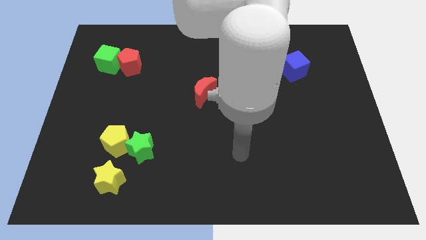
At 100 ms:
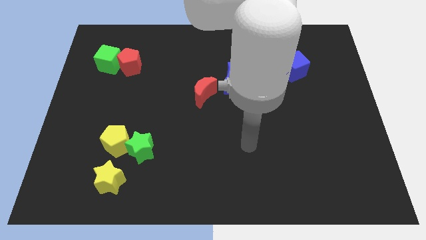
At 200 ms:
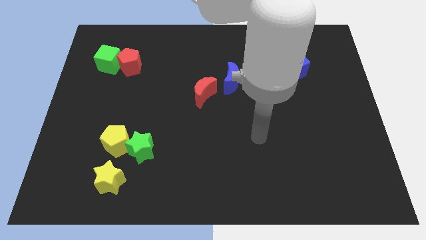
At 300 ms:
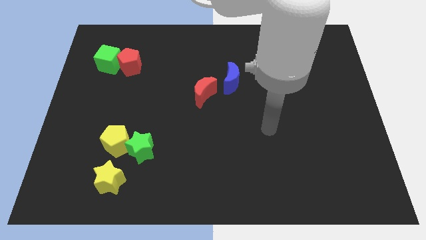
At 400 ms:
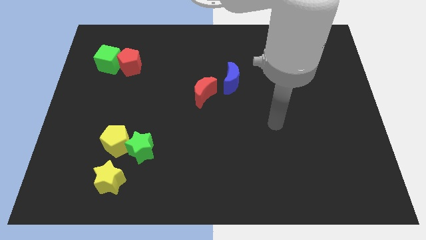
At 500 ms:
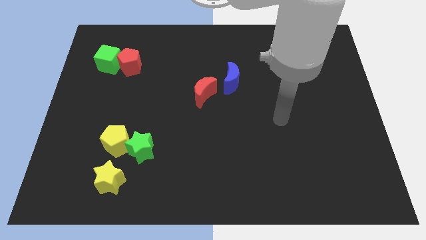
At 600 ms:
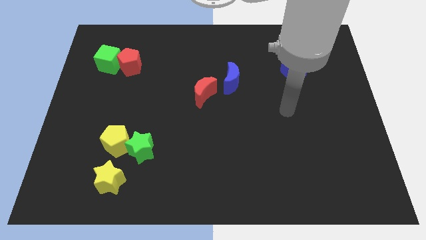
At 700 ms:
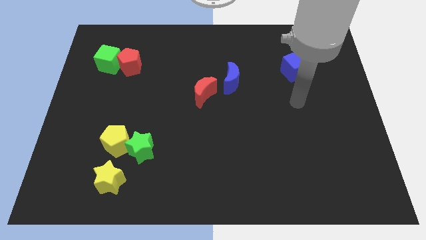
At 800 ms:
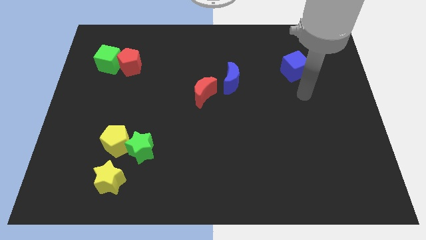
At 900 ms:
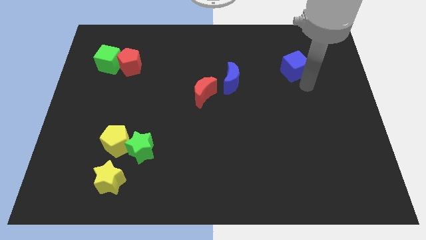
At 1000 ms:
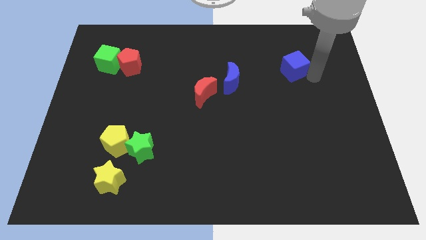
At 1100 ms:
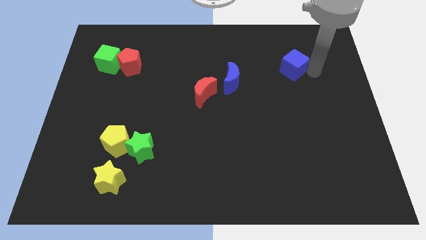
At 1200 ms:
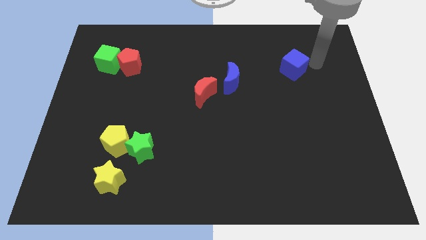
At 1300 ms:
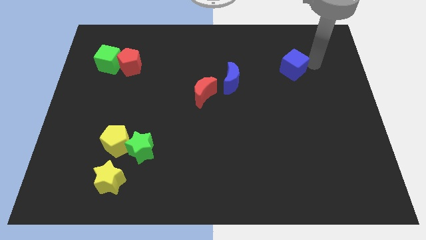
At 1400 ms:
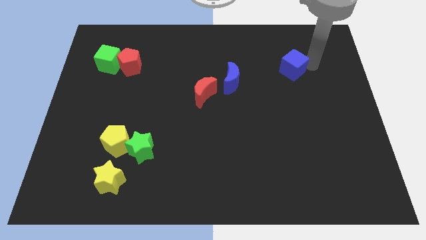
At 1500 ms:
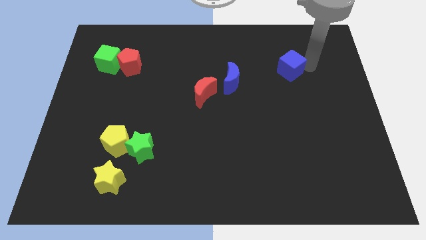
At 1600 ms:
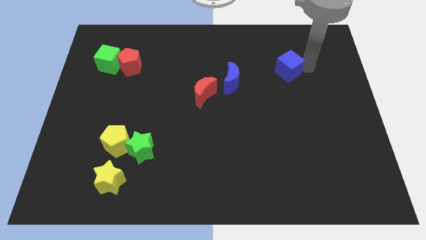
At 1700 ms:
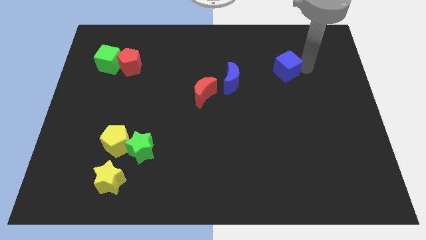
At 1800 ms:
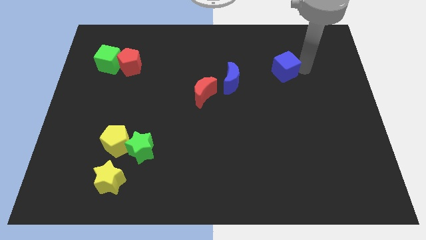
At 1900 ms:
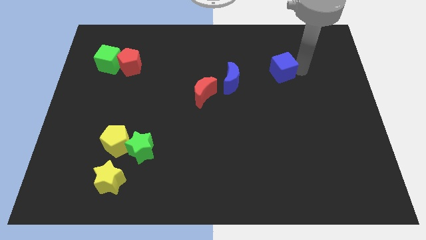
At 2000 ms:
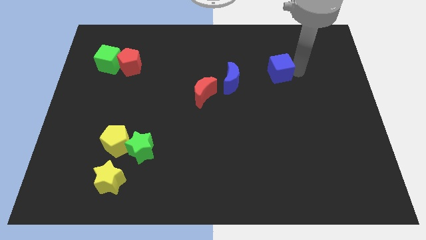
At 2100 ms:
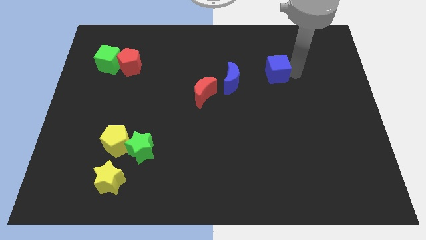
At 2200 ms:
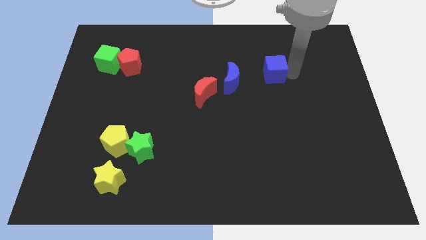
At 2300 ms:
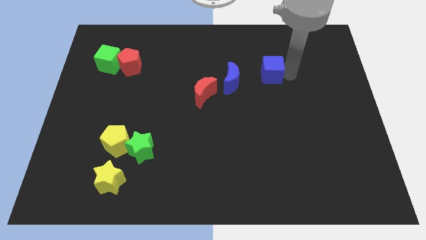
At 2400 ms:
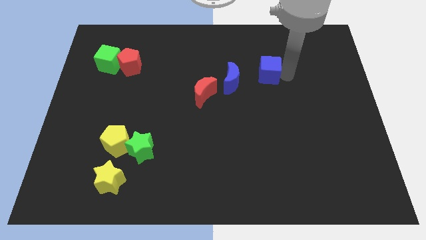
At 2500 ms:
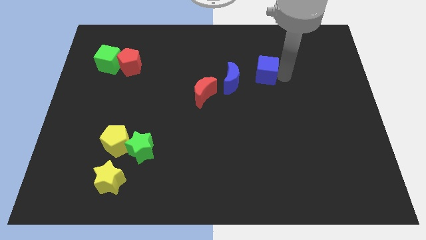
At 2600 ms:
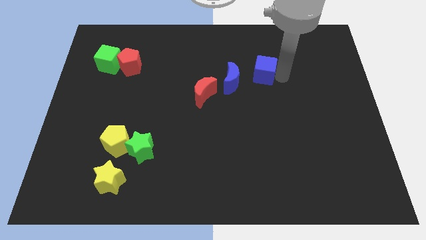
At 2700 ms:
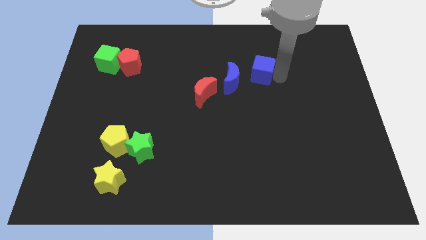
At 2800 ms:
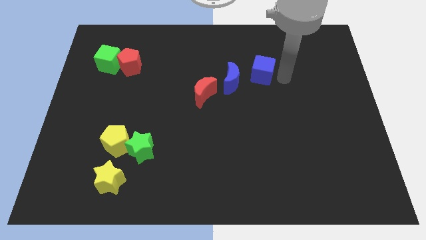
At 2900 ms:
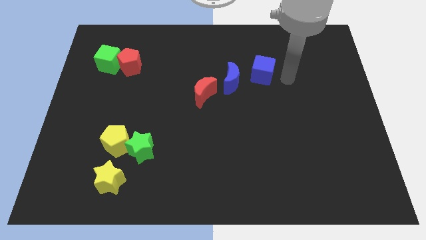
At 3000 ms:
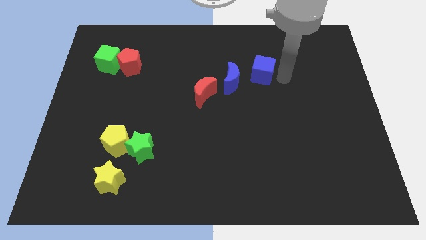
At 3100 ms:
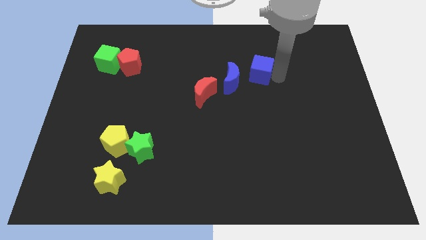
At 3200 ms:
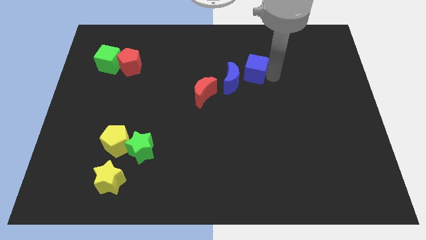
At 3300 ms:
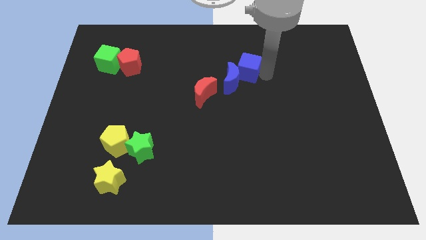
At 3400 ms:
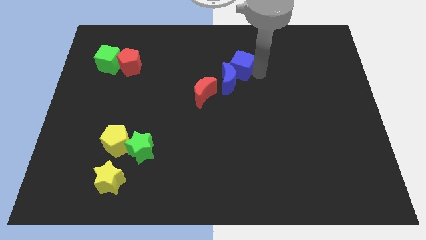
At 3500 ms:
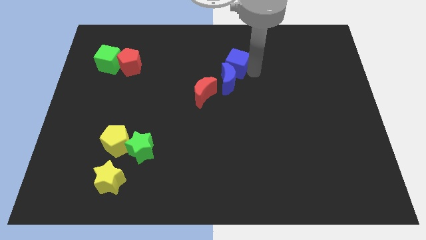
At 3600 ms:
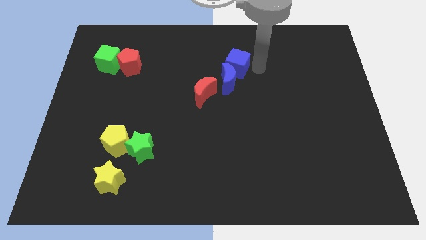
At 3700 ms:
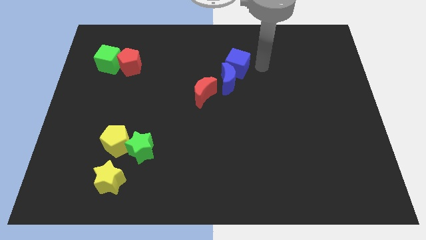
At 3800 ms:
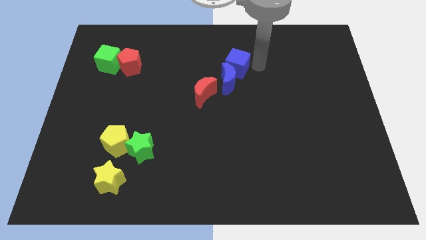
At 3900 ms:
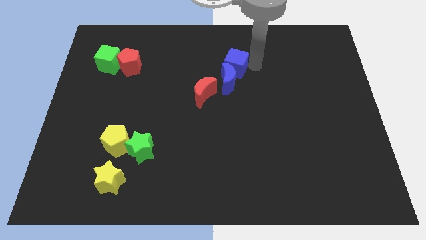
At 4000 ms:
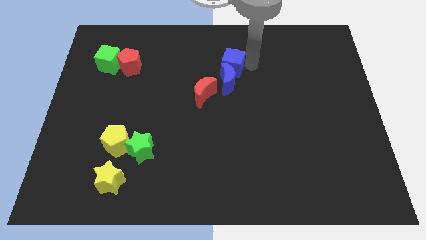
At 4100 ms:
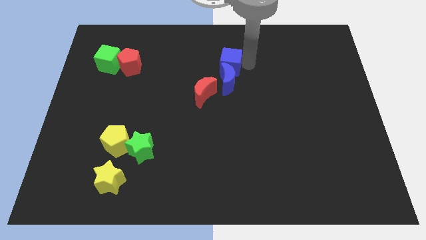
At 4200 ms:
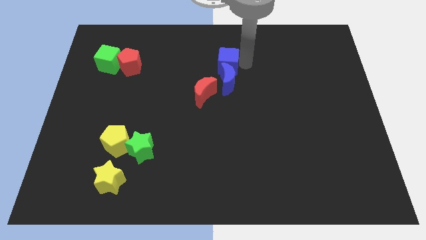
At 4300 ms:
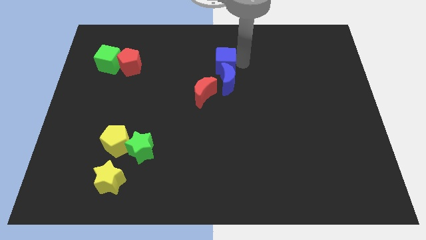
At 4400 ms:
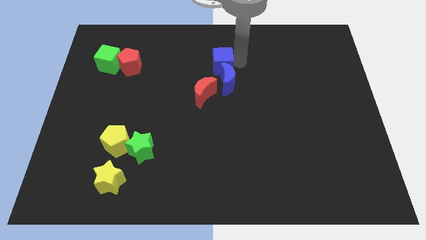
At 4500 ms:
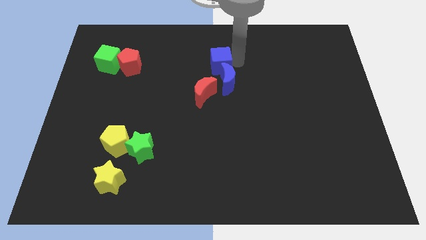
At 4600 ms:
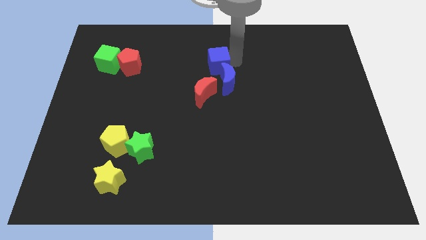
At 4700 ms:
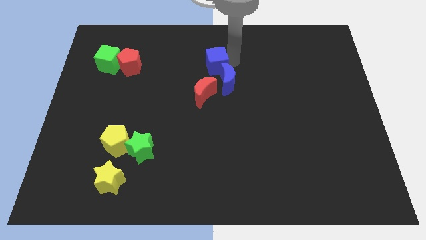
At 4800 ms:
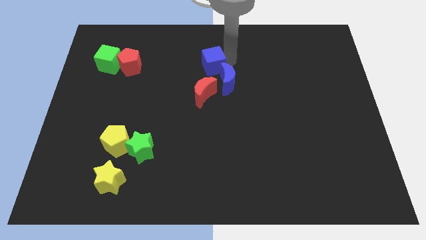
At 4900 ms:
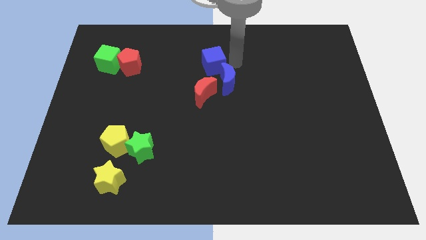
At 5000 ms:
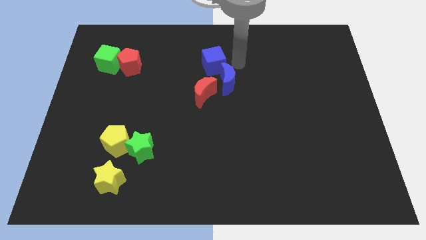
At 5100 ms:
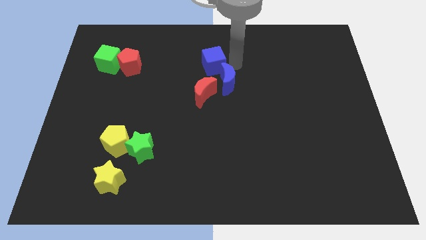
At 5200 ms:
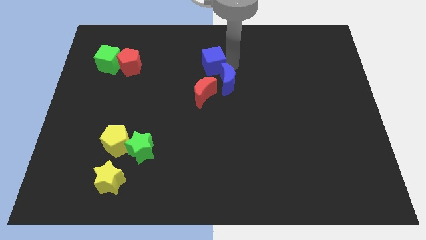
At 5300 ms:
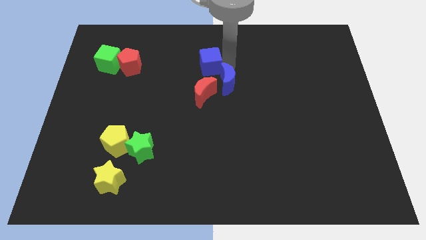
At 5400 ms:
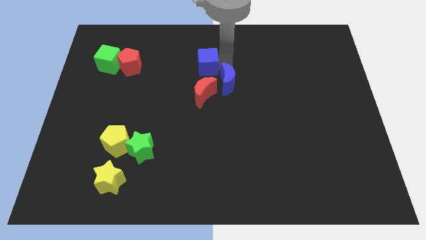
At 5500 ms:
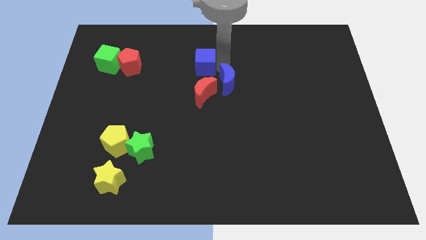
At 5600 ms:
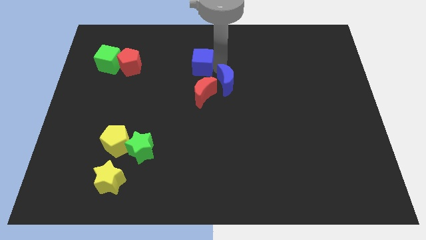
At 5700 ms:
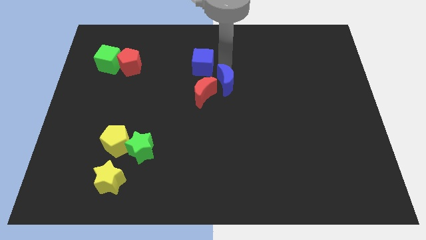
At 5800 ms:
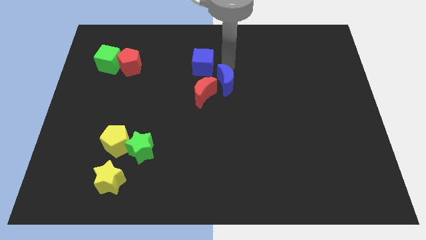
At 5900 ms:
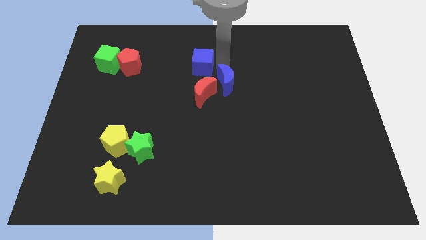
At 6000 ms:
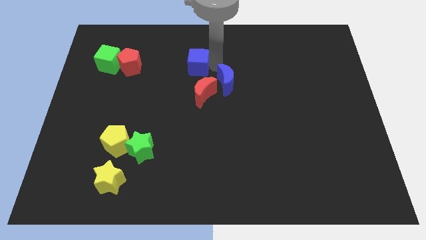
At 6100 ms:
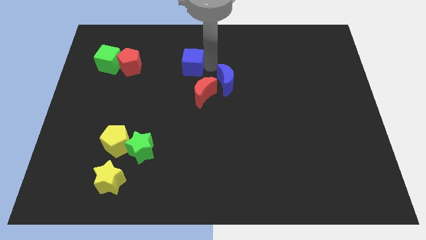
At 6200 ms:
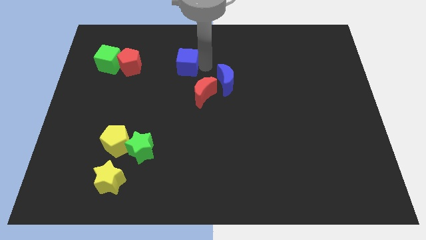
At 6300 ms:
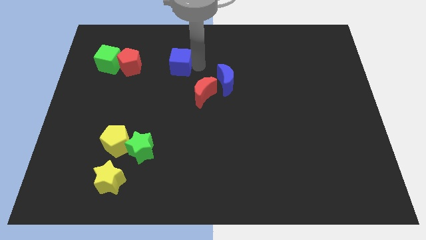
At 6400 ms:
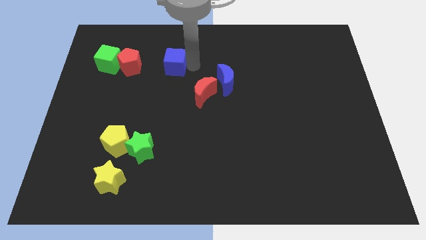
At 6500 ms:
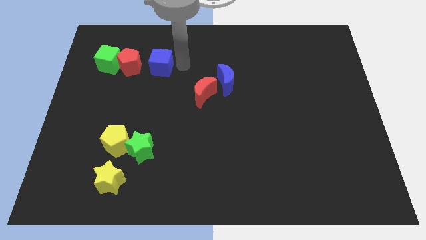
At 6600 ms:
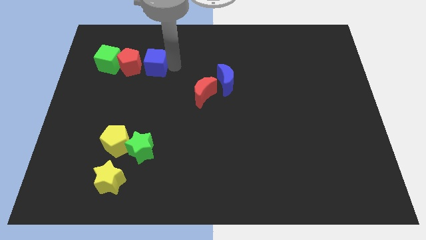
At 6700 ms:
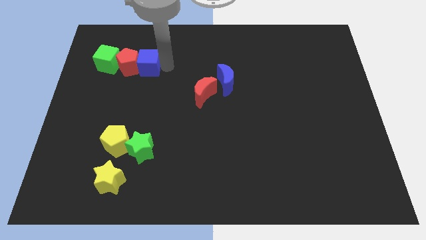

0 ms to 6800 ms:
slide the blue cube close to the red pentagon
